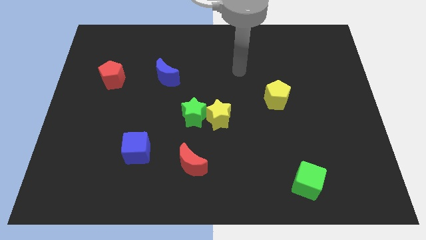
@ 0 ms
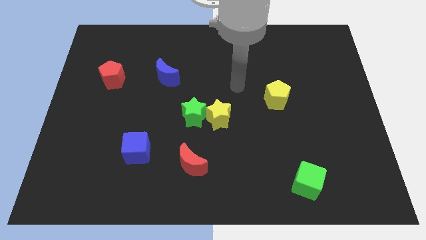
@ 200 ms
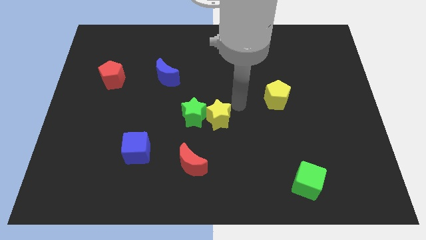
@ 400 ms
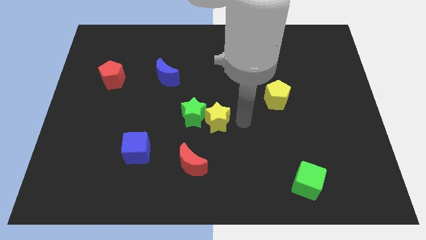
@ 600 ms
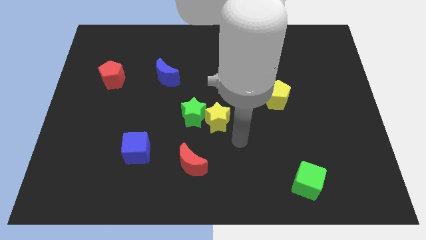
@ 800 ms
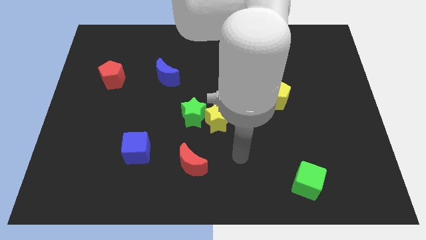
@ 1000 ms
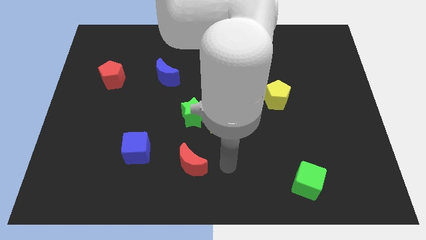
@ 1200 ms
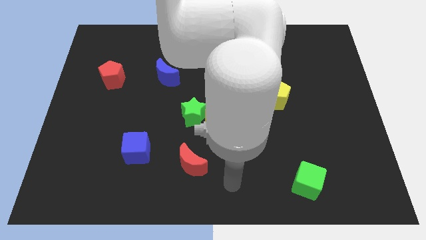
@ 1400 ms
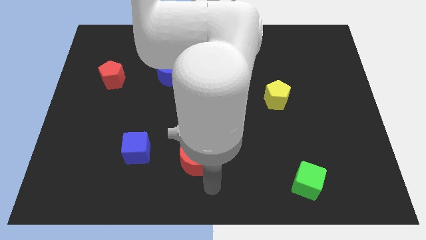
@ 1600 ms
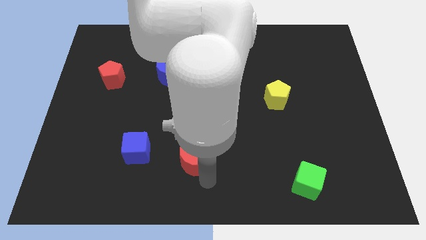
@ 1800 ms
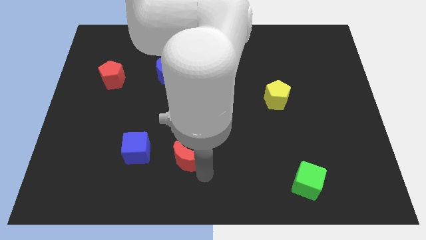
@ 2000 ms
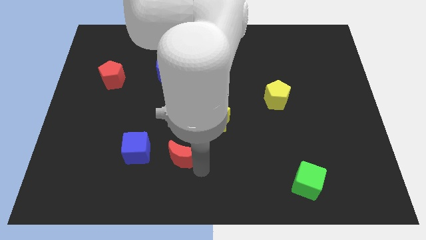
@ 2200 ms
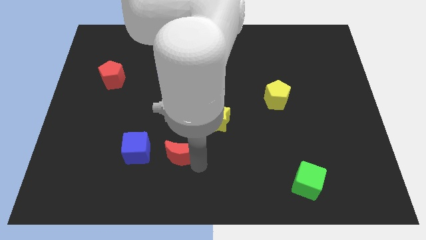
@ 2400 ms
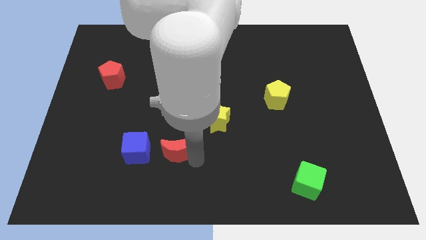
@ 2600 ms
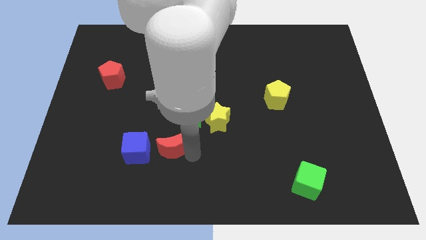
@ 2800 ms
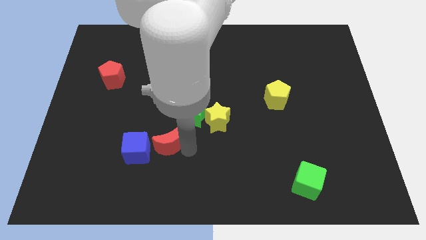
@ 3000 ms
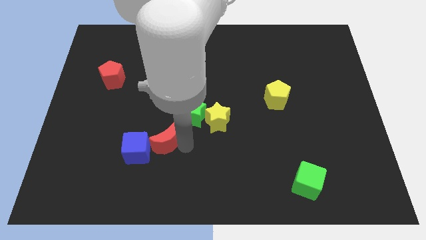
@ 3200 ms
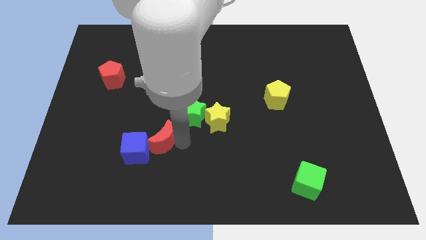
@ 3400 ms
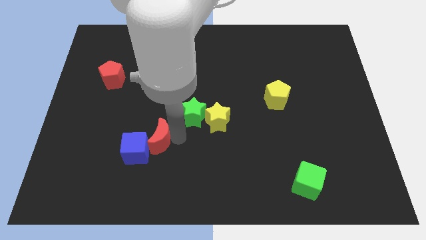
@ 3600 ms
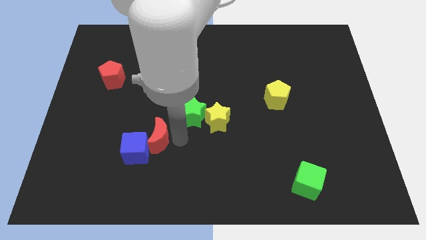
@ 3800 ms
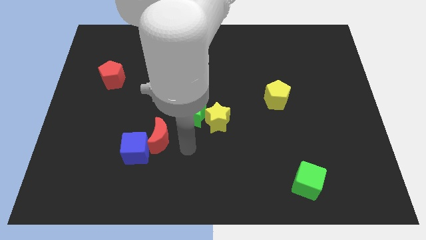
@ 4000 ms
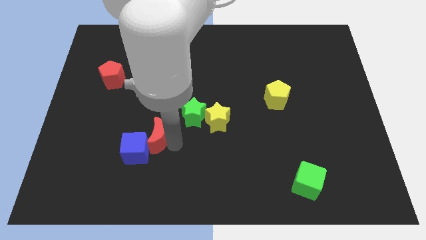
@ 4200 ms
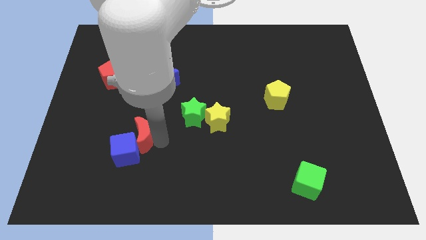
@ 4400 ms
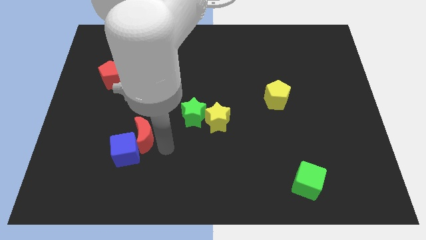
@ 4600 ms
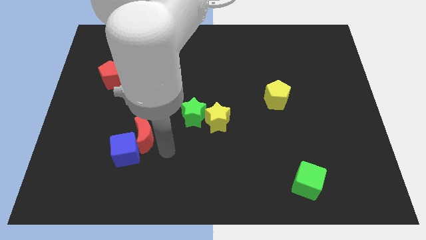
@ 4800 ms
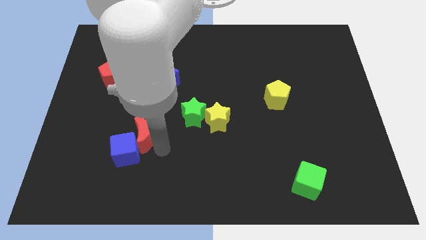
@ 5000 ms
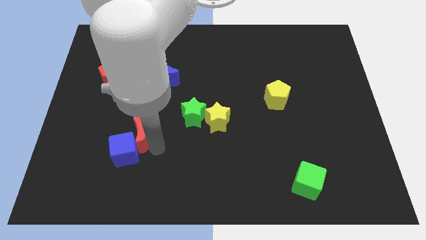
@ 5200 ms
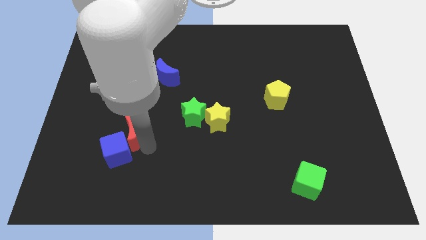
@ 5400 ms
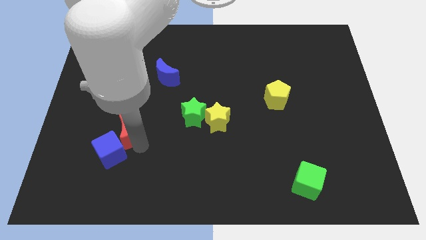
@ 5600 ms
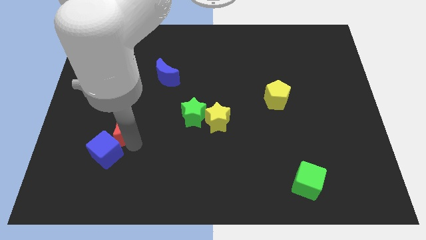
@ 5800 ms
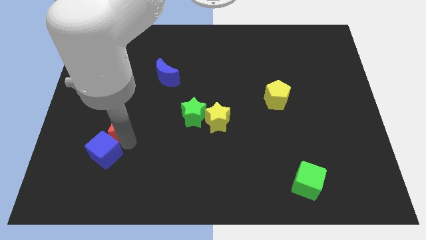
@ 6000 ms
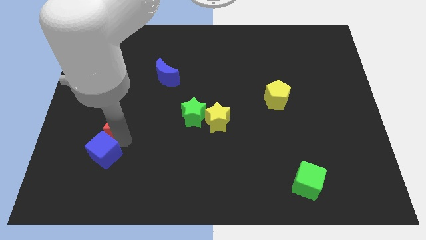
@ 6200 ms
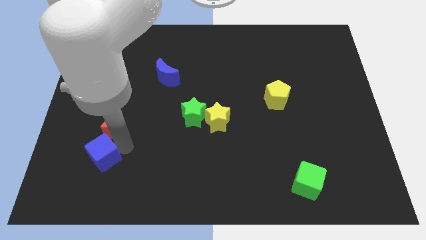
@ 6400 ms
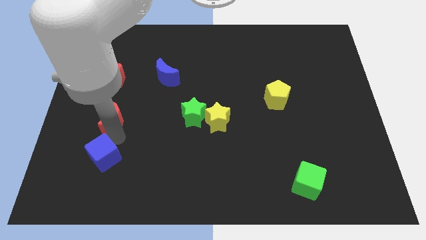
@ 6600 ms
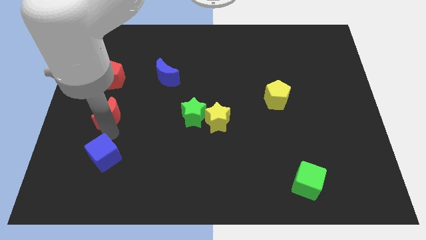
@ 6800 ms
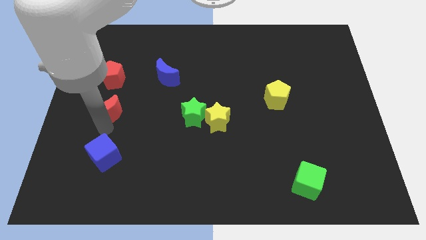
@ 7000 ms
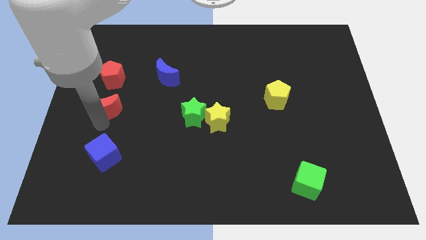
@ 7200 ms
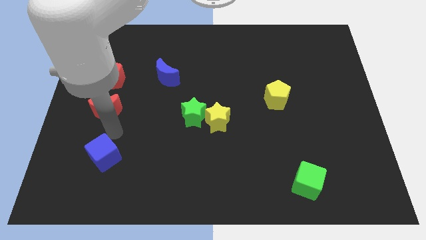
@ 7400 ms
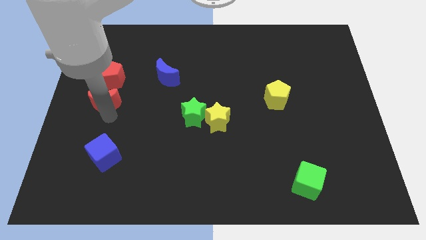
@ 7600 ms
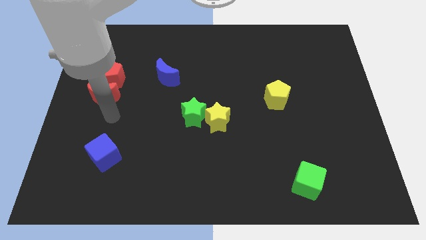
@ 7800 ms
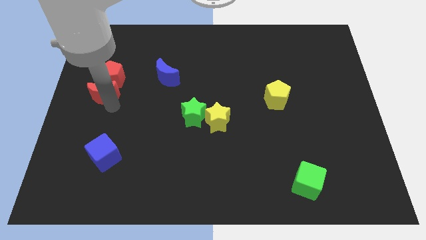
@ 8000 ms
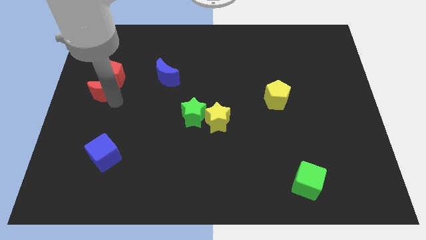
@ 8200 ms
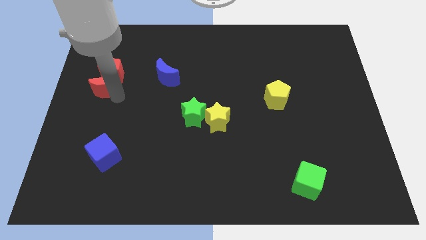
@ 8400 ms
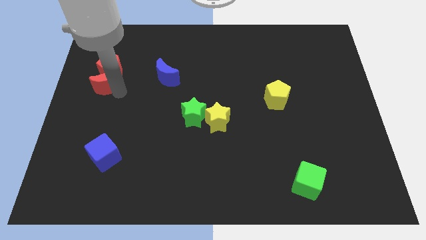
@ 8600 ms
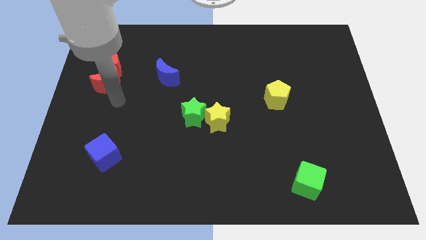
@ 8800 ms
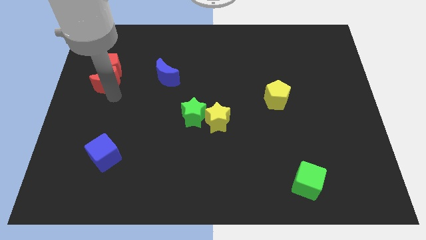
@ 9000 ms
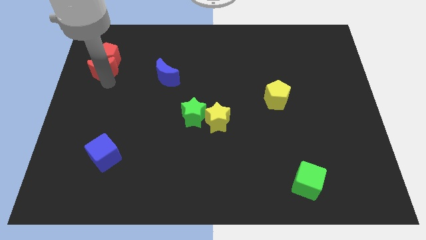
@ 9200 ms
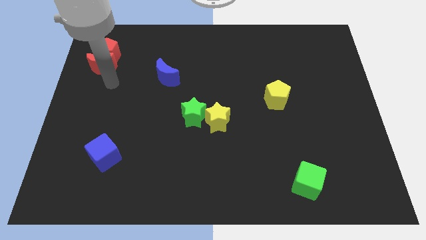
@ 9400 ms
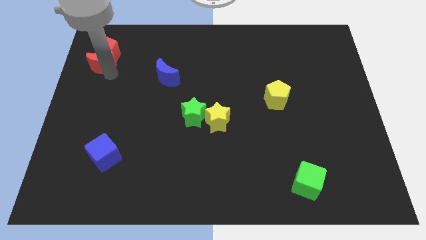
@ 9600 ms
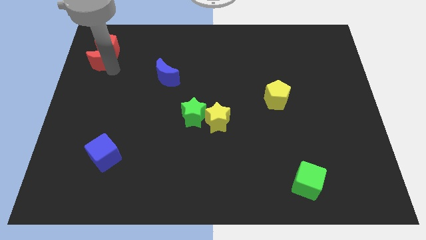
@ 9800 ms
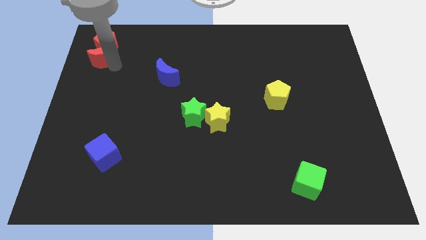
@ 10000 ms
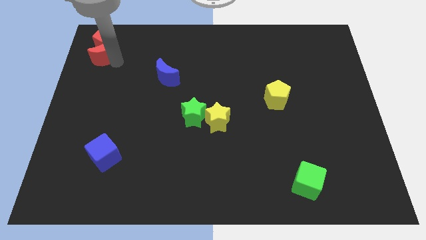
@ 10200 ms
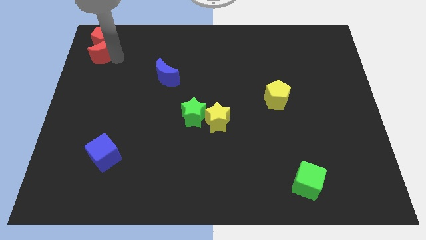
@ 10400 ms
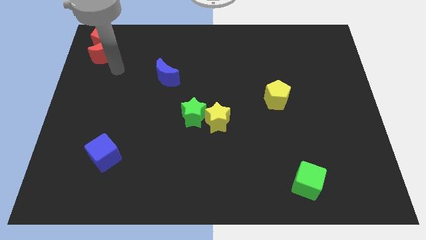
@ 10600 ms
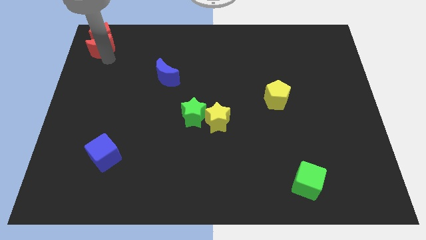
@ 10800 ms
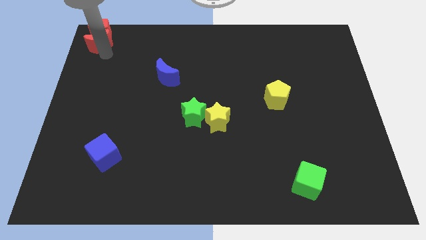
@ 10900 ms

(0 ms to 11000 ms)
put the red moon to the top left of the board

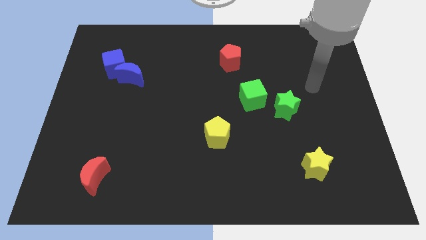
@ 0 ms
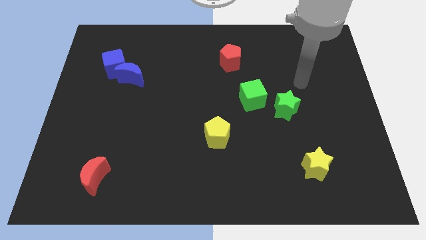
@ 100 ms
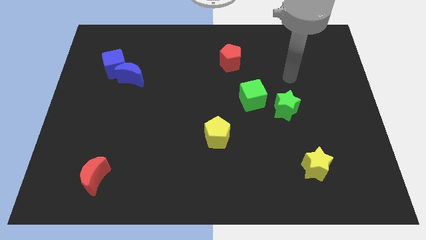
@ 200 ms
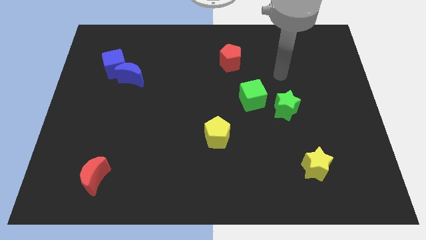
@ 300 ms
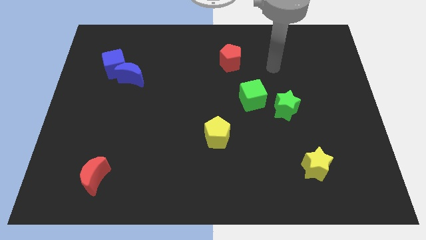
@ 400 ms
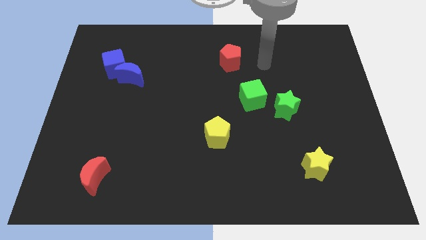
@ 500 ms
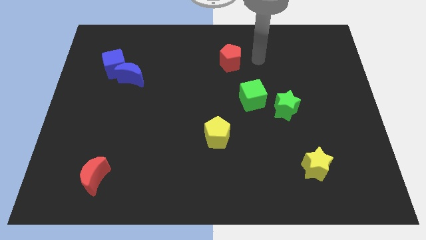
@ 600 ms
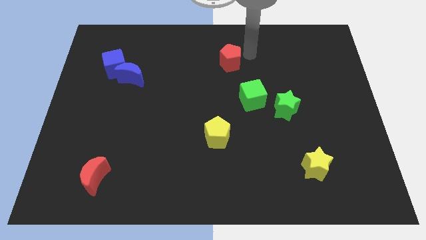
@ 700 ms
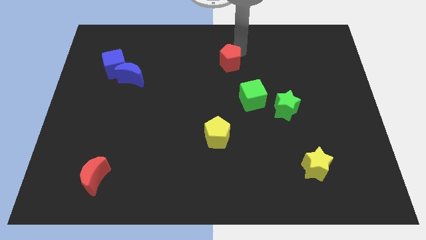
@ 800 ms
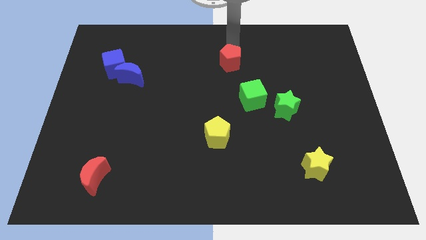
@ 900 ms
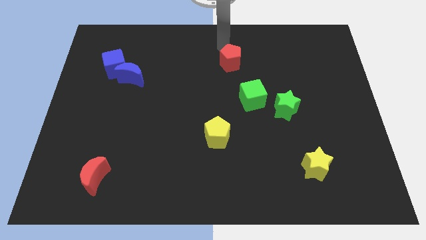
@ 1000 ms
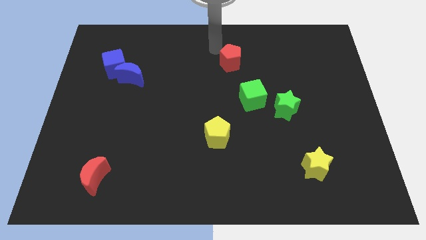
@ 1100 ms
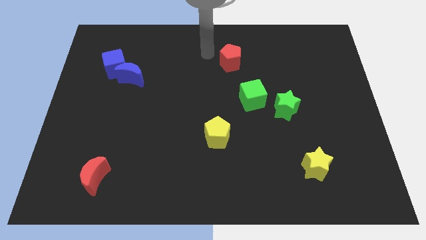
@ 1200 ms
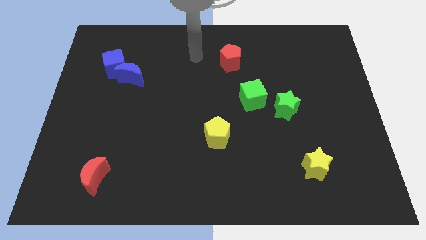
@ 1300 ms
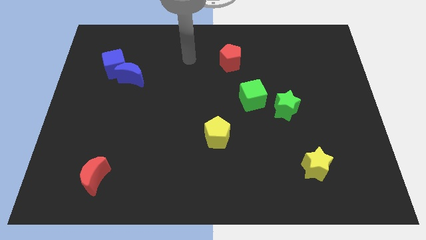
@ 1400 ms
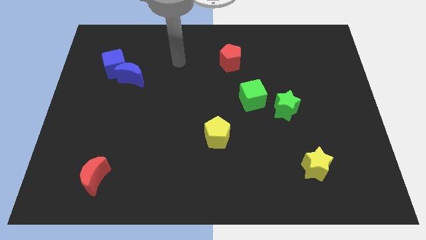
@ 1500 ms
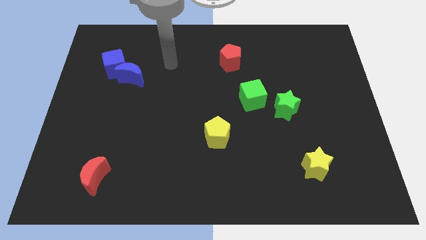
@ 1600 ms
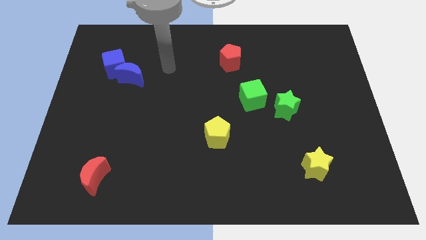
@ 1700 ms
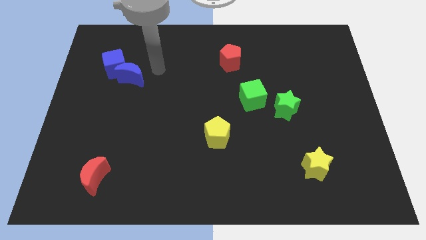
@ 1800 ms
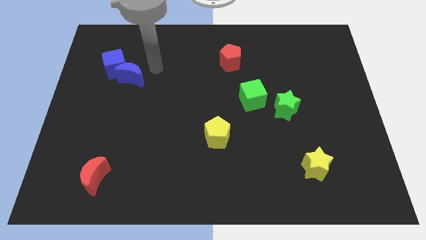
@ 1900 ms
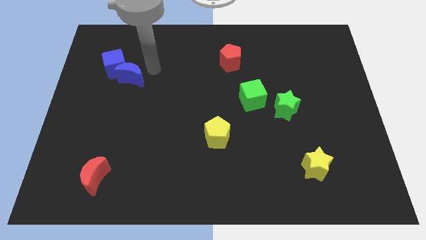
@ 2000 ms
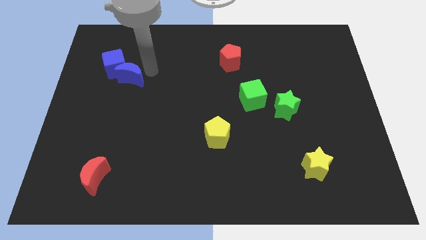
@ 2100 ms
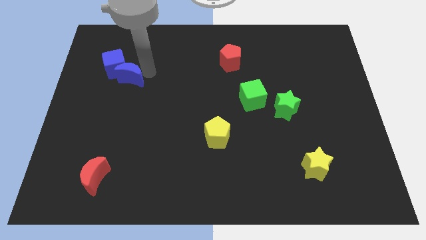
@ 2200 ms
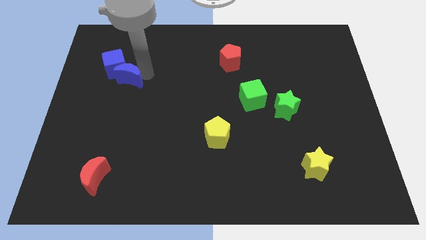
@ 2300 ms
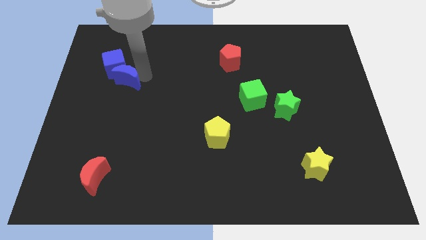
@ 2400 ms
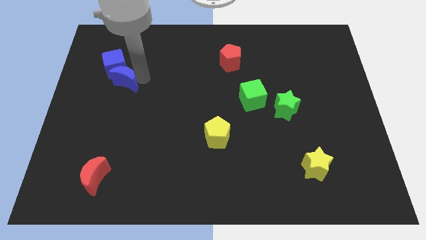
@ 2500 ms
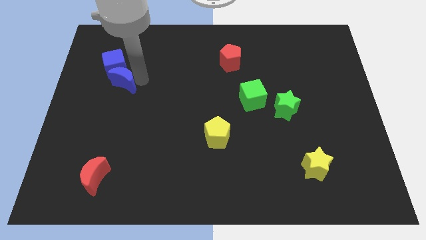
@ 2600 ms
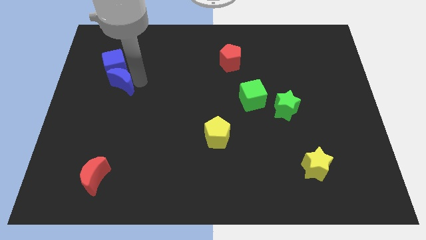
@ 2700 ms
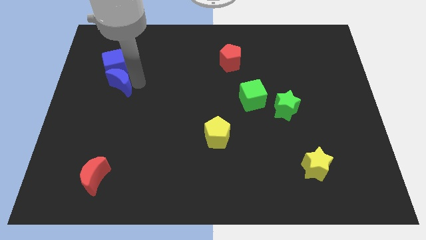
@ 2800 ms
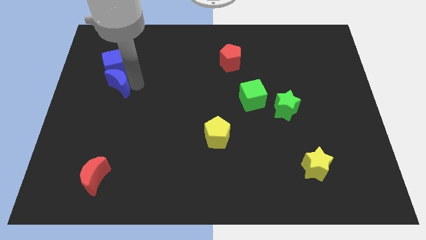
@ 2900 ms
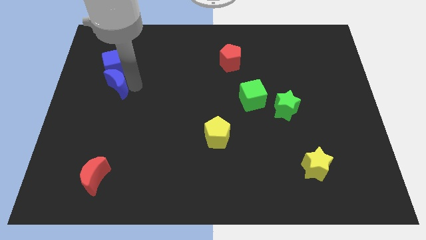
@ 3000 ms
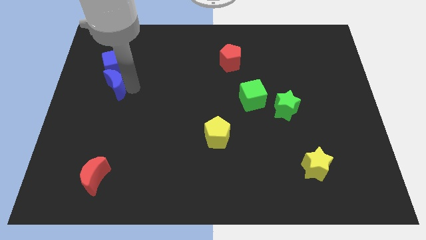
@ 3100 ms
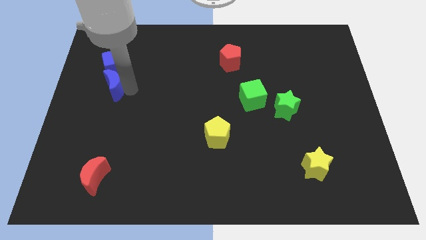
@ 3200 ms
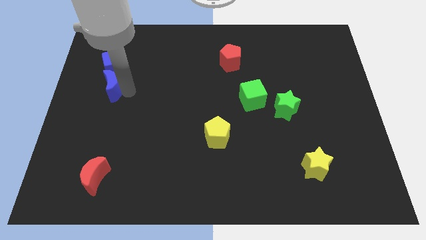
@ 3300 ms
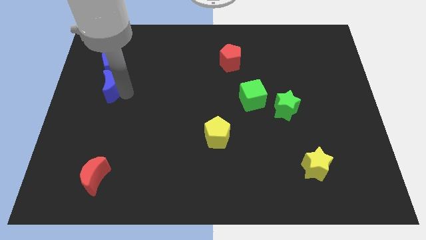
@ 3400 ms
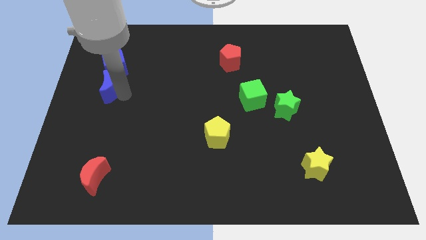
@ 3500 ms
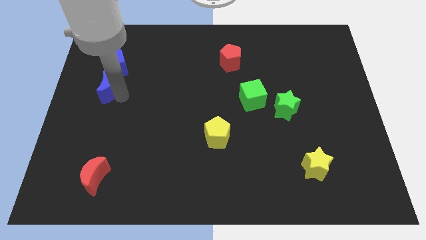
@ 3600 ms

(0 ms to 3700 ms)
move the blue moon to the left side of the board
